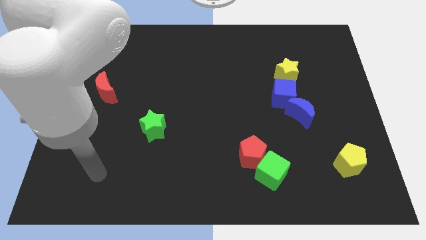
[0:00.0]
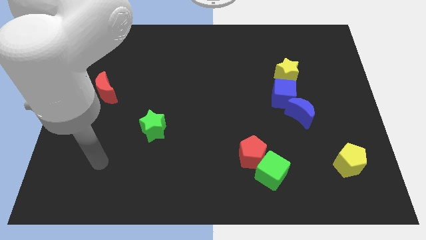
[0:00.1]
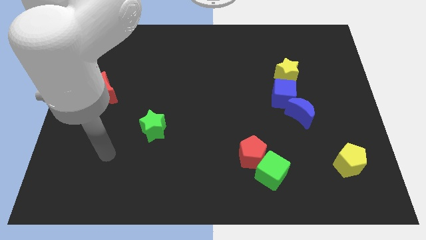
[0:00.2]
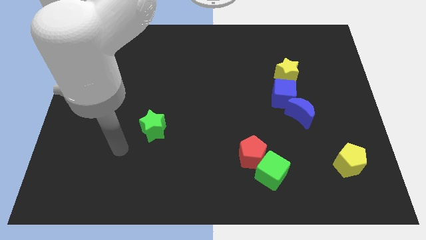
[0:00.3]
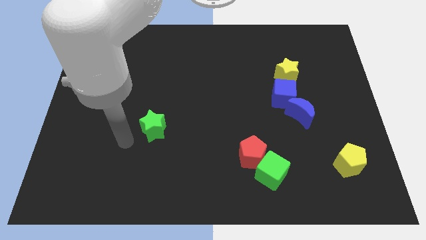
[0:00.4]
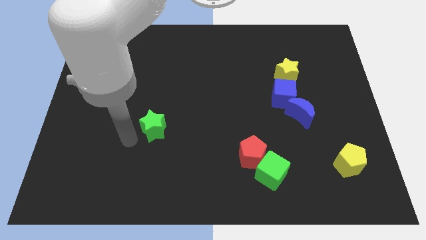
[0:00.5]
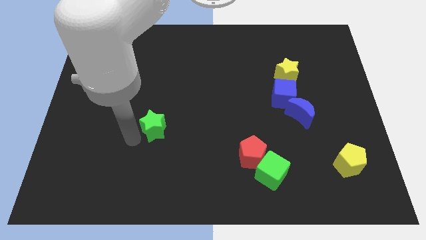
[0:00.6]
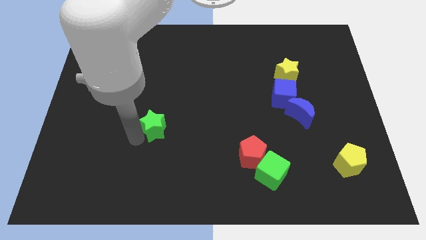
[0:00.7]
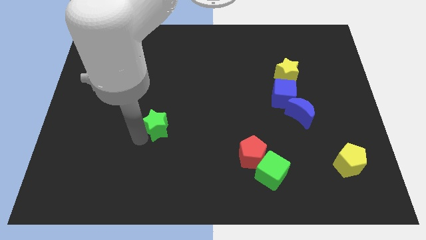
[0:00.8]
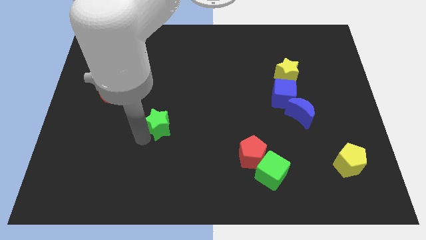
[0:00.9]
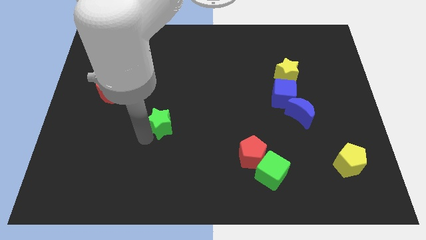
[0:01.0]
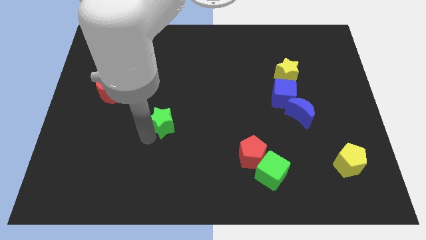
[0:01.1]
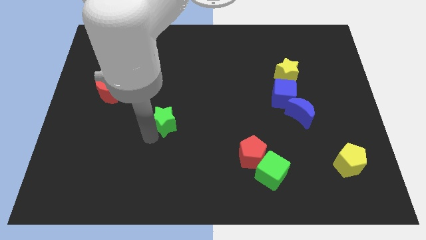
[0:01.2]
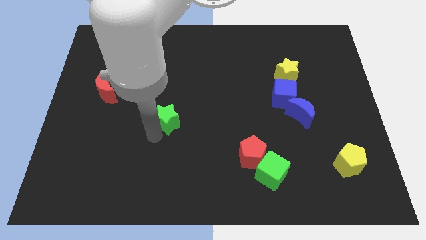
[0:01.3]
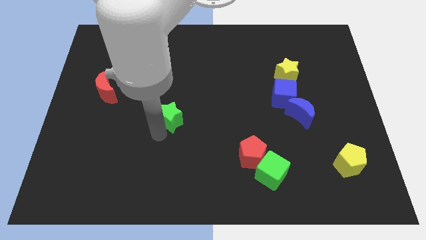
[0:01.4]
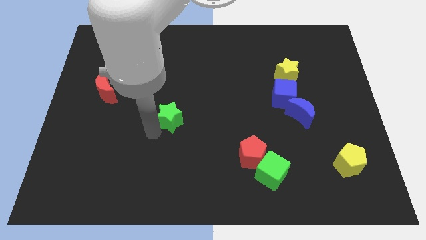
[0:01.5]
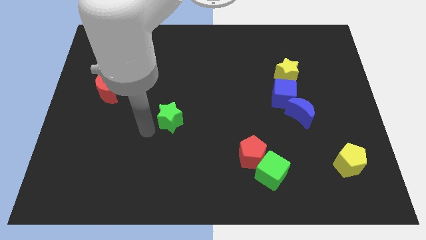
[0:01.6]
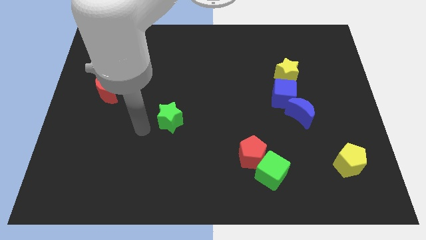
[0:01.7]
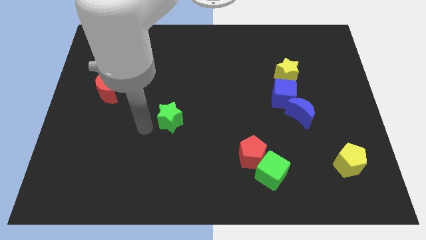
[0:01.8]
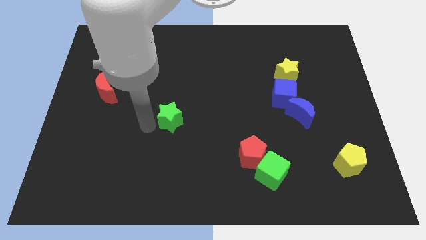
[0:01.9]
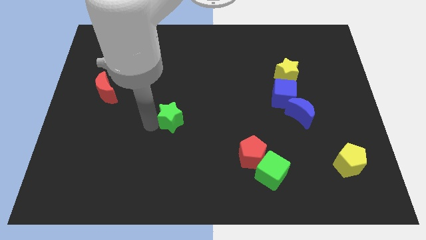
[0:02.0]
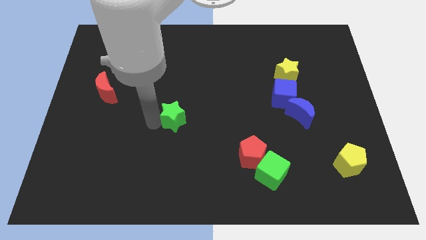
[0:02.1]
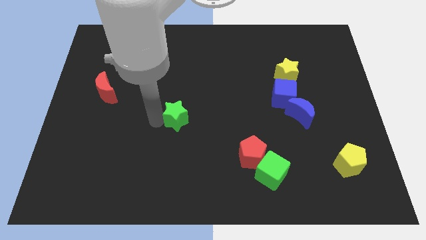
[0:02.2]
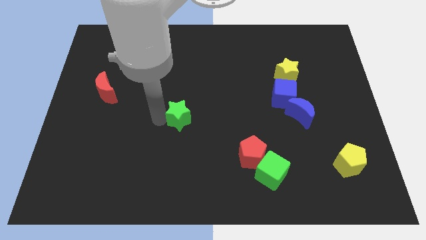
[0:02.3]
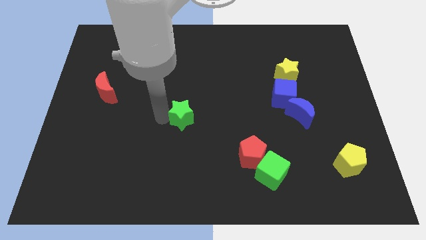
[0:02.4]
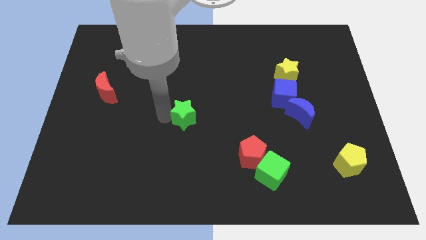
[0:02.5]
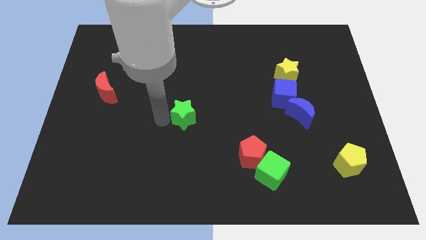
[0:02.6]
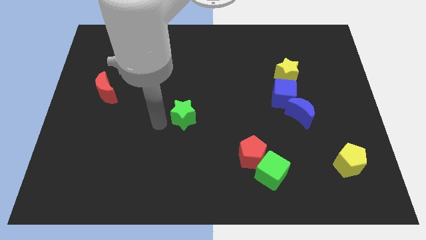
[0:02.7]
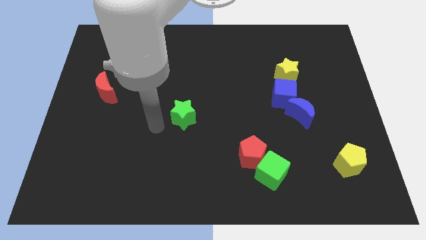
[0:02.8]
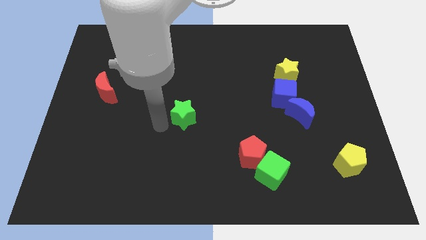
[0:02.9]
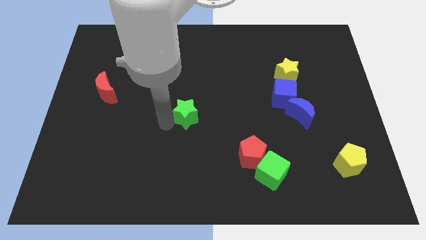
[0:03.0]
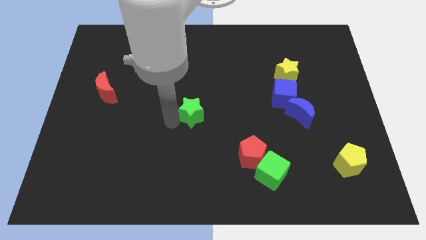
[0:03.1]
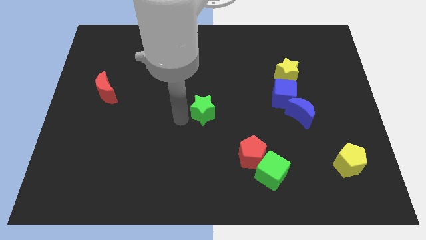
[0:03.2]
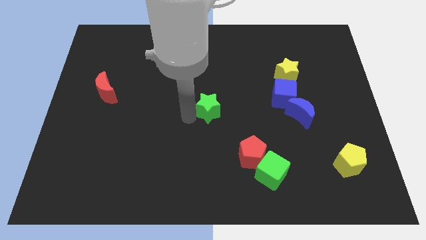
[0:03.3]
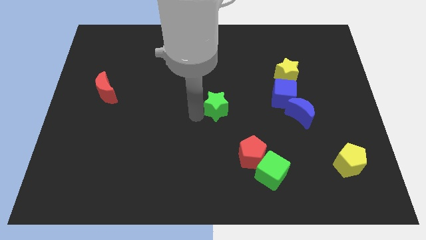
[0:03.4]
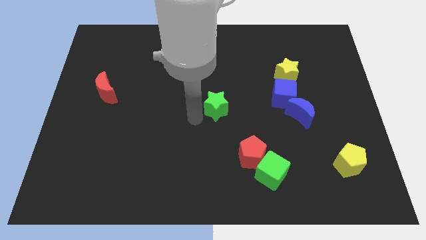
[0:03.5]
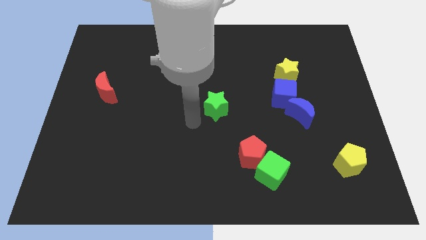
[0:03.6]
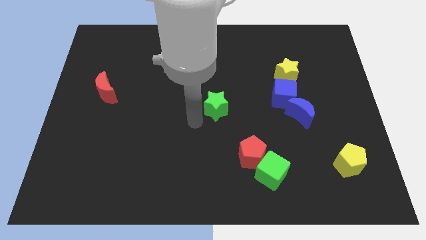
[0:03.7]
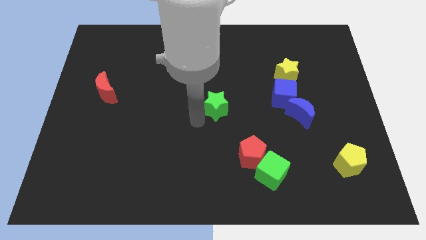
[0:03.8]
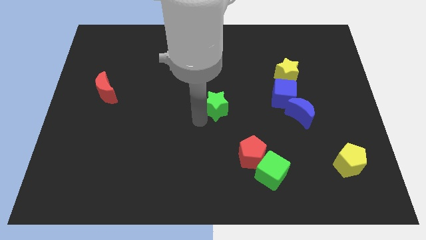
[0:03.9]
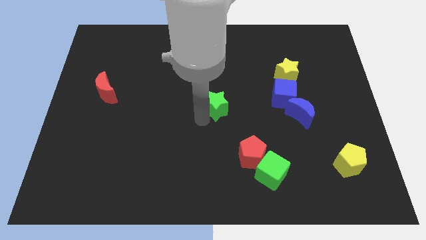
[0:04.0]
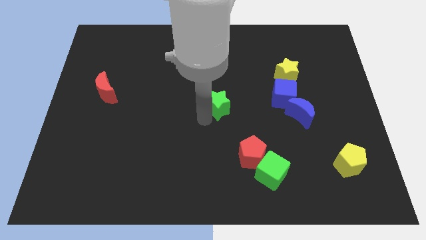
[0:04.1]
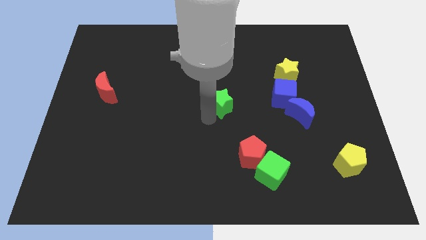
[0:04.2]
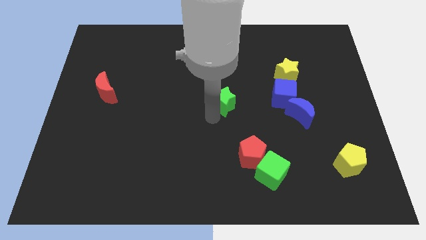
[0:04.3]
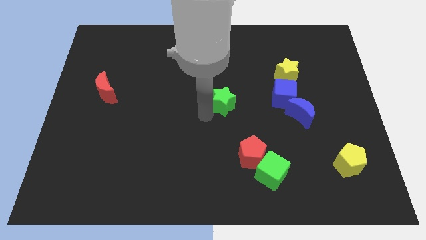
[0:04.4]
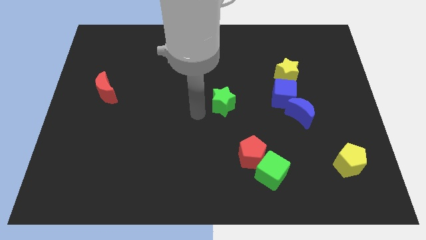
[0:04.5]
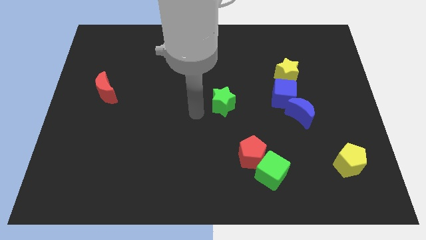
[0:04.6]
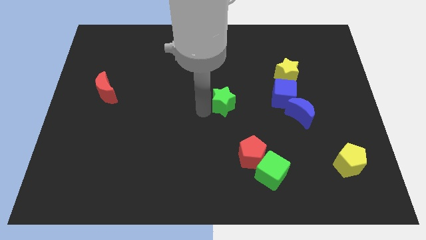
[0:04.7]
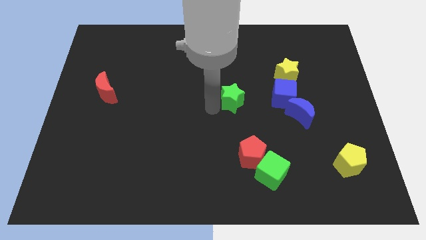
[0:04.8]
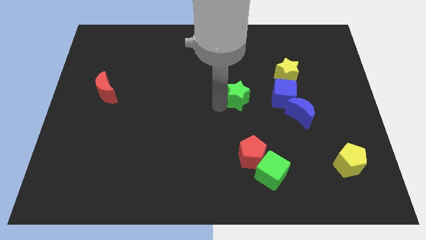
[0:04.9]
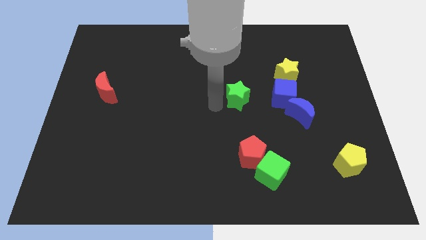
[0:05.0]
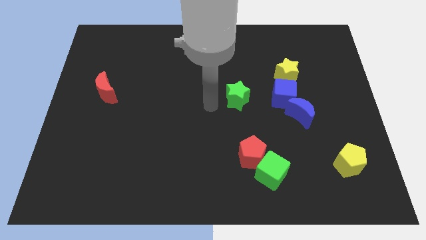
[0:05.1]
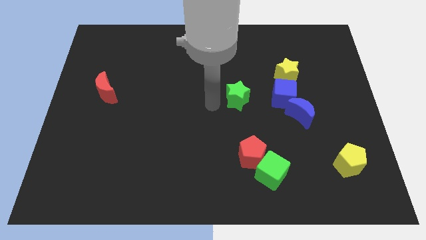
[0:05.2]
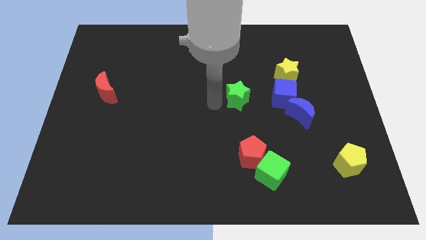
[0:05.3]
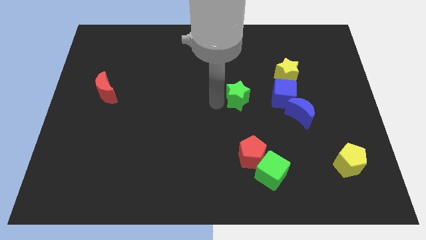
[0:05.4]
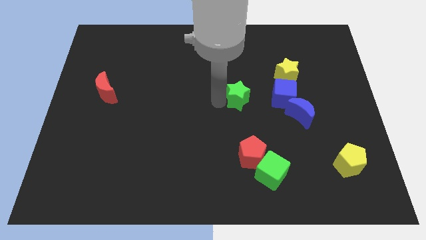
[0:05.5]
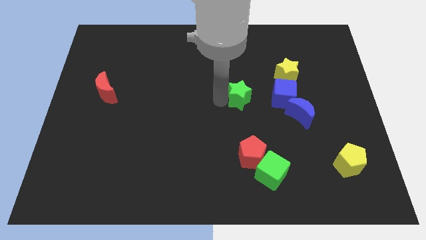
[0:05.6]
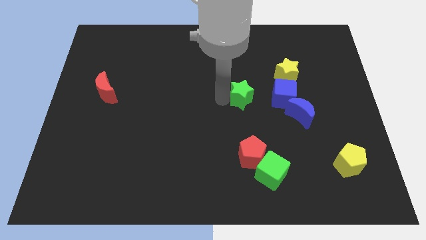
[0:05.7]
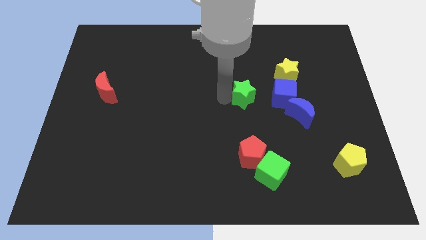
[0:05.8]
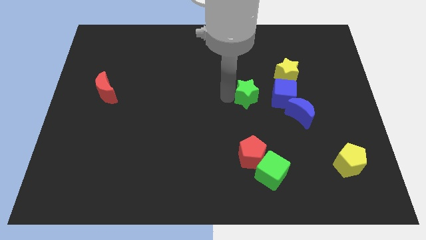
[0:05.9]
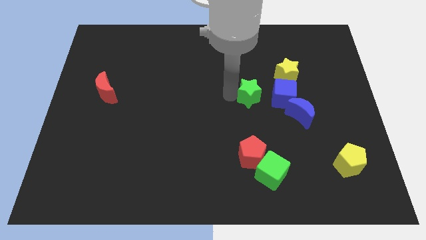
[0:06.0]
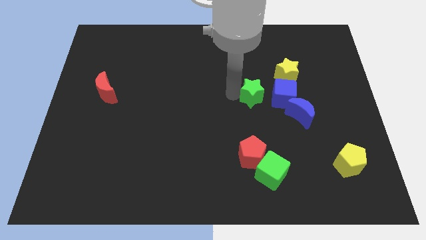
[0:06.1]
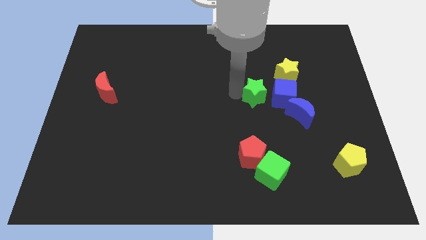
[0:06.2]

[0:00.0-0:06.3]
put the green star to the top left side of the blue moon

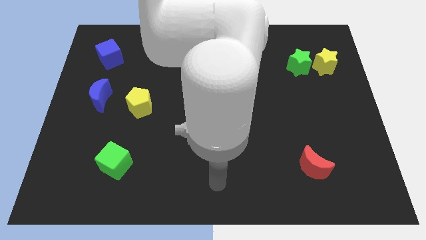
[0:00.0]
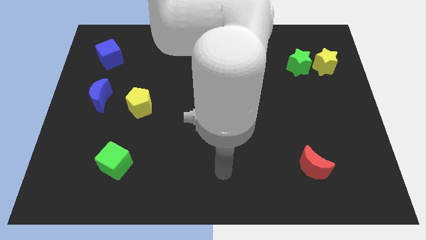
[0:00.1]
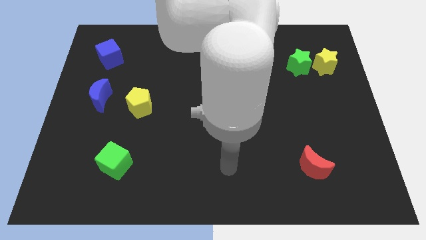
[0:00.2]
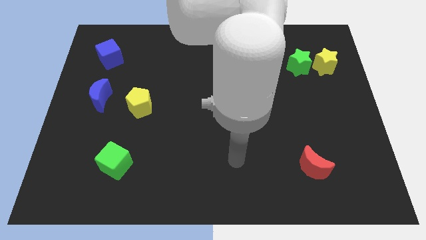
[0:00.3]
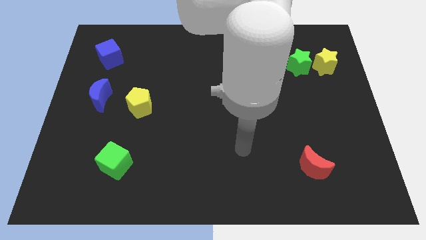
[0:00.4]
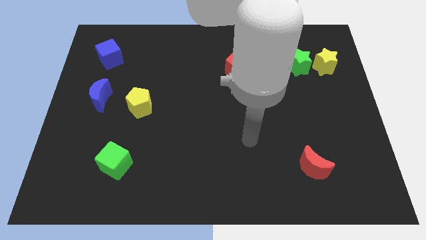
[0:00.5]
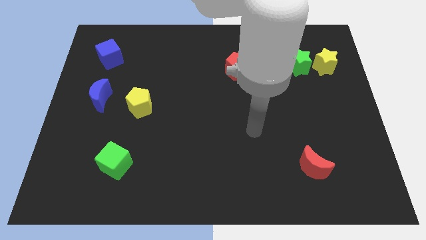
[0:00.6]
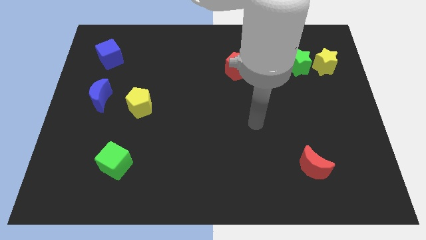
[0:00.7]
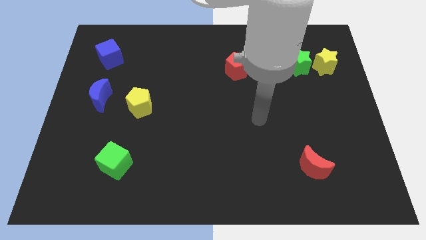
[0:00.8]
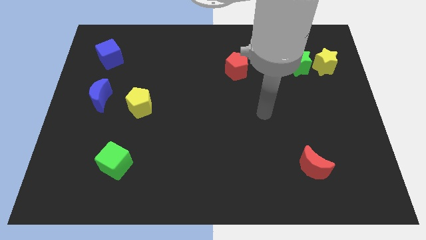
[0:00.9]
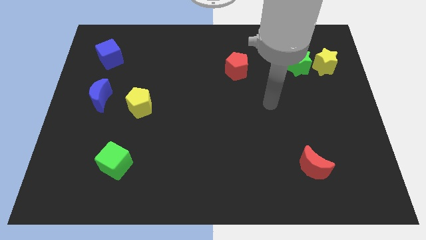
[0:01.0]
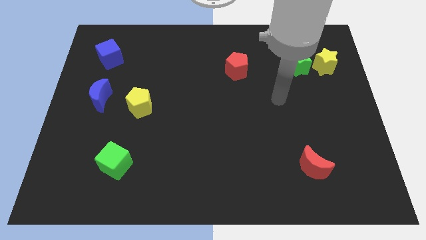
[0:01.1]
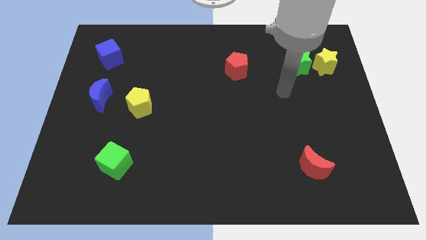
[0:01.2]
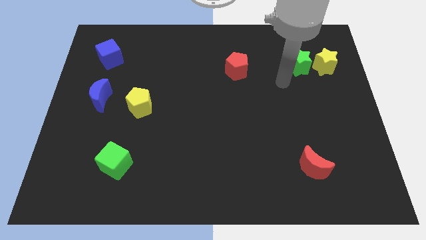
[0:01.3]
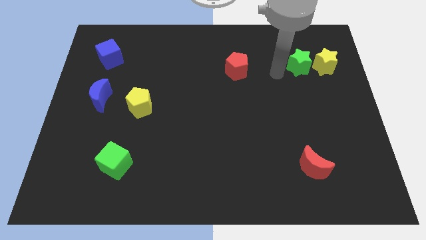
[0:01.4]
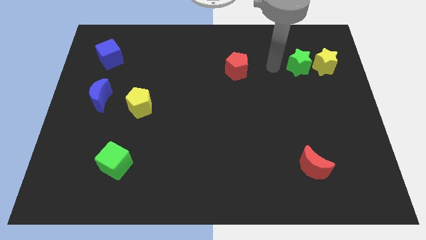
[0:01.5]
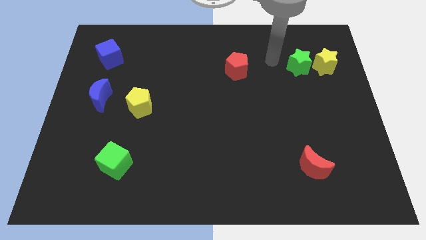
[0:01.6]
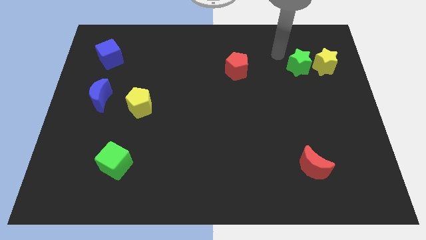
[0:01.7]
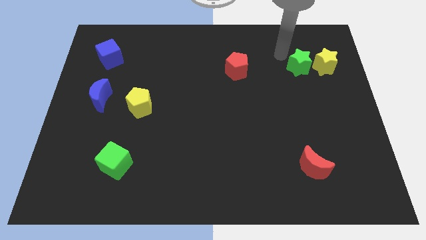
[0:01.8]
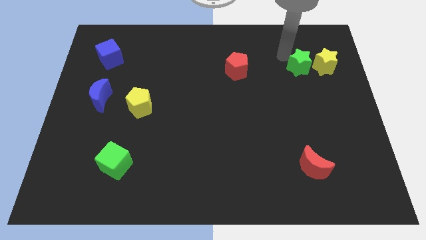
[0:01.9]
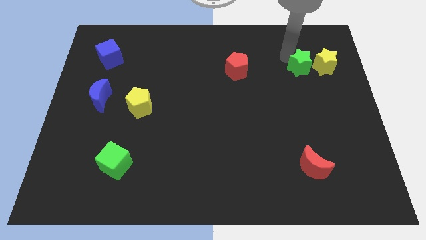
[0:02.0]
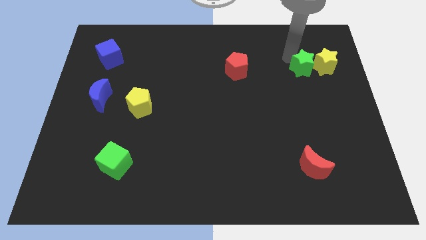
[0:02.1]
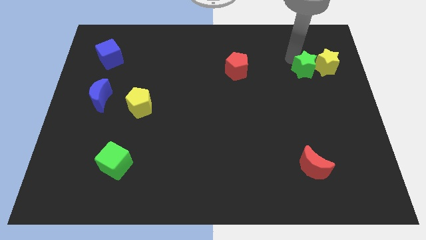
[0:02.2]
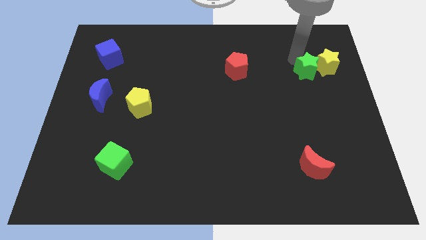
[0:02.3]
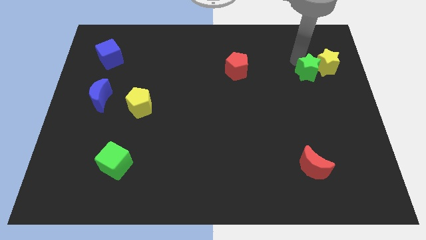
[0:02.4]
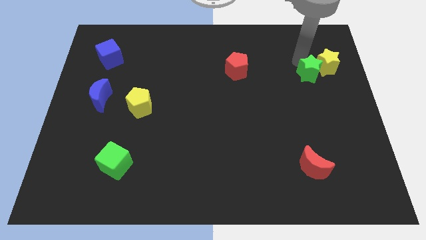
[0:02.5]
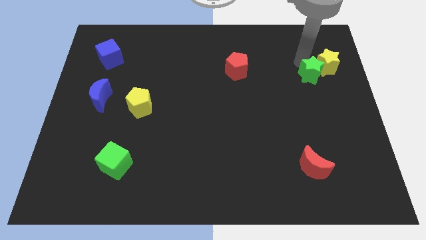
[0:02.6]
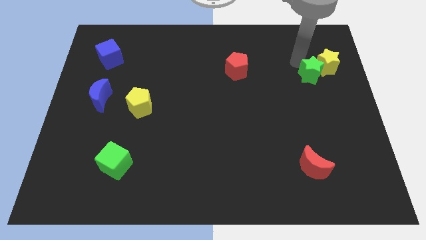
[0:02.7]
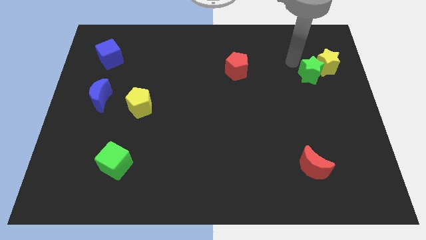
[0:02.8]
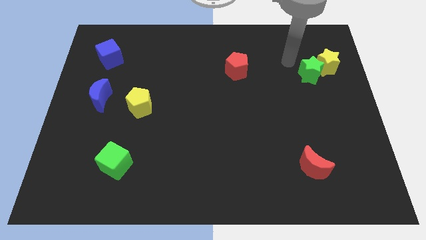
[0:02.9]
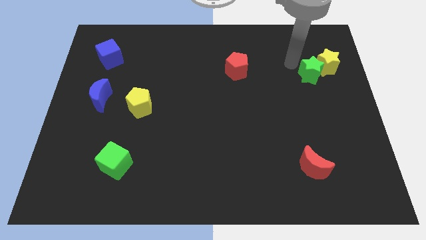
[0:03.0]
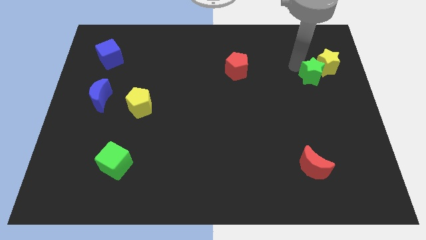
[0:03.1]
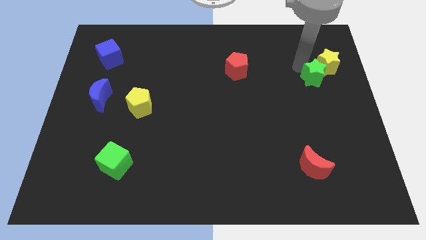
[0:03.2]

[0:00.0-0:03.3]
move the green star below the yellow star
